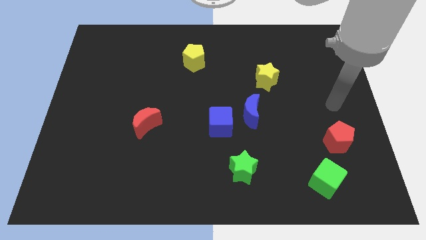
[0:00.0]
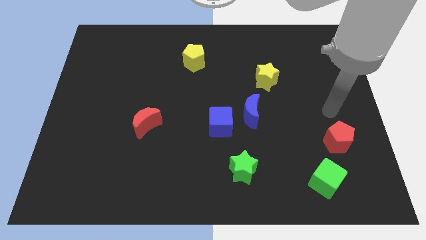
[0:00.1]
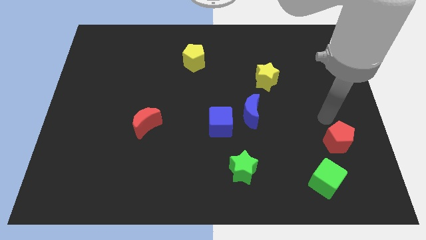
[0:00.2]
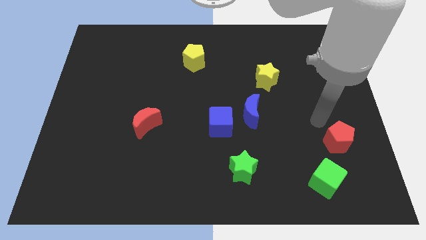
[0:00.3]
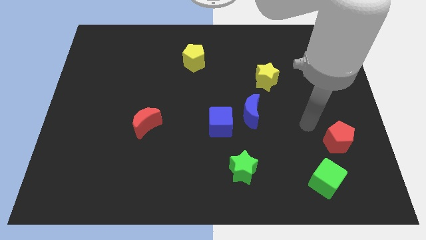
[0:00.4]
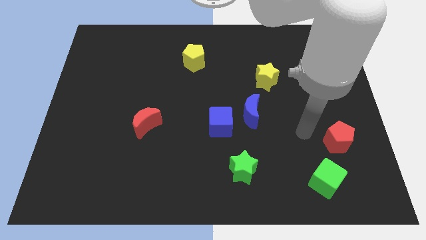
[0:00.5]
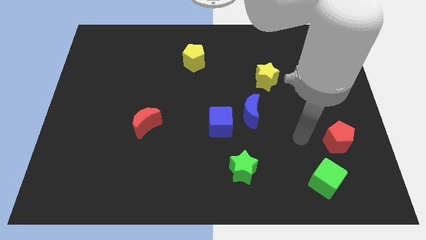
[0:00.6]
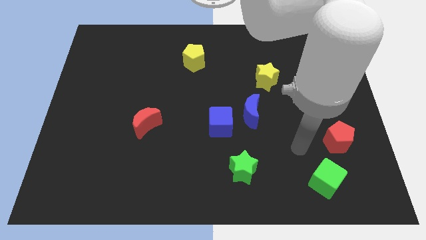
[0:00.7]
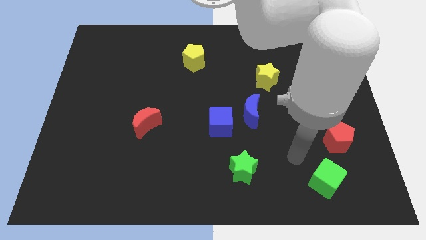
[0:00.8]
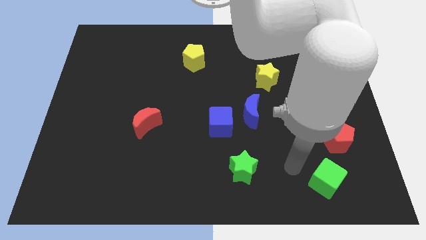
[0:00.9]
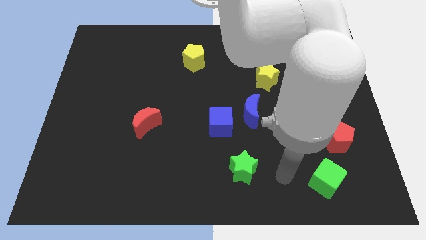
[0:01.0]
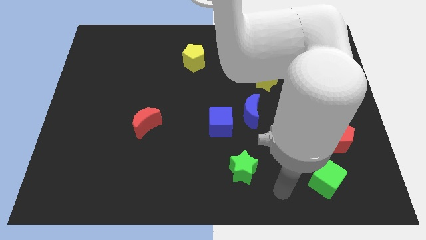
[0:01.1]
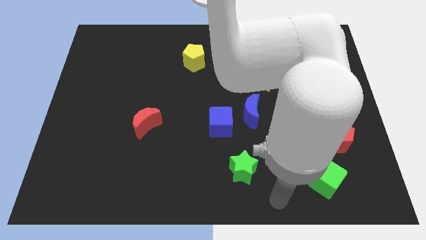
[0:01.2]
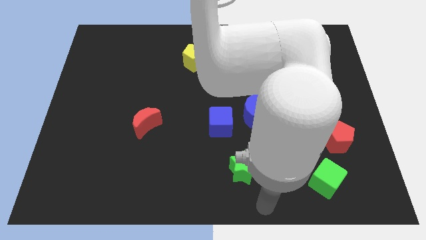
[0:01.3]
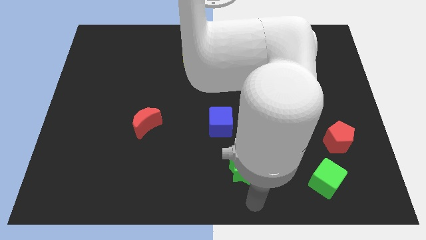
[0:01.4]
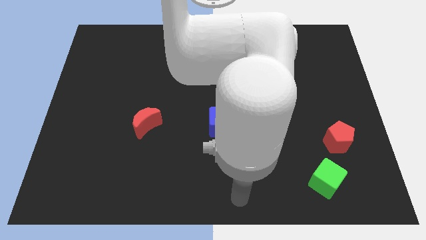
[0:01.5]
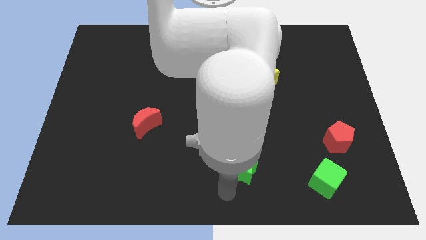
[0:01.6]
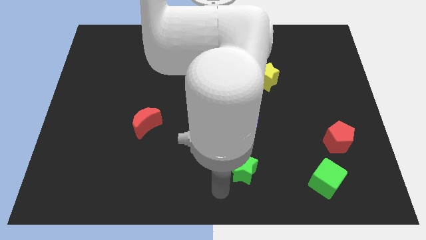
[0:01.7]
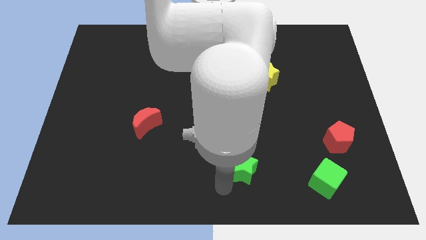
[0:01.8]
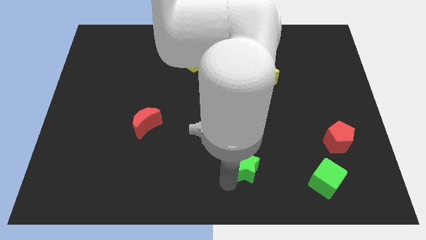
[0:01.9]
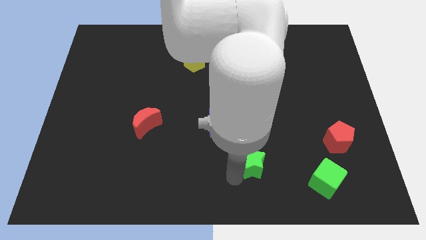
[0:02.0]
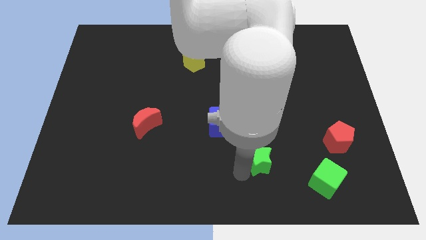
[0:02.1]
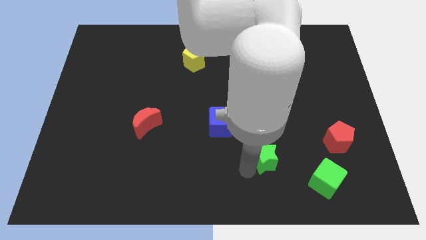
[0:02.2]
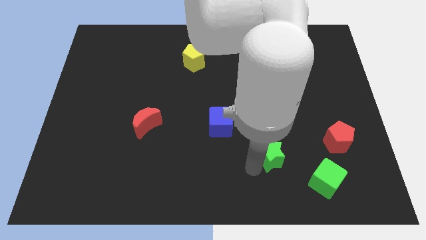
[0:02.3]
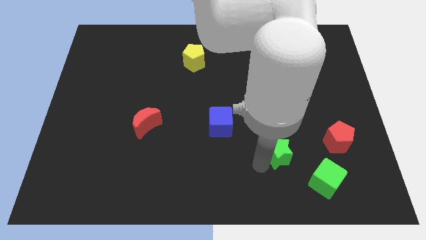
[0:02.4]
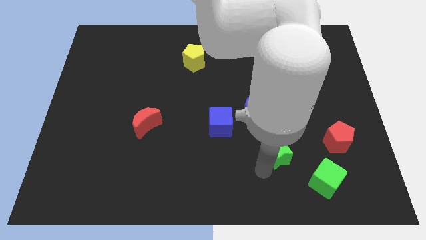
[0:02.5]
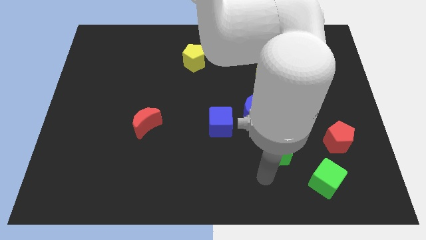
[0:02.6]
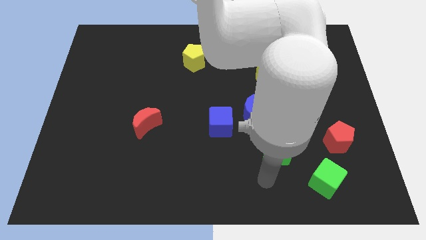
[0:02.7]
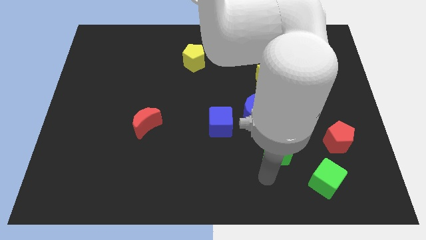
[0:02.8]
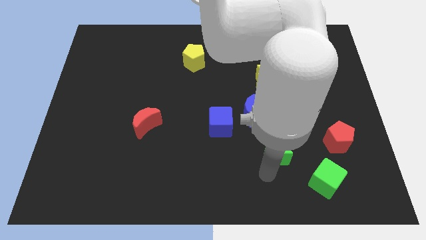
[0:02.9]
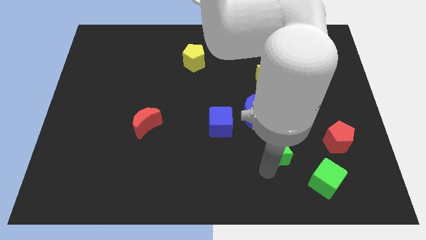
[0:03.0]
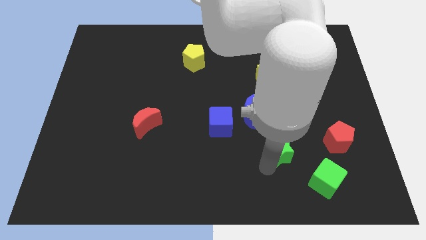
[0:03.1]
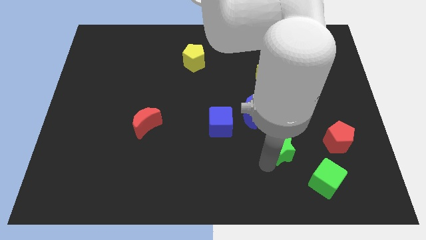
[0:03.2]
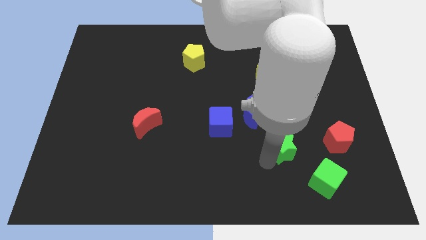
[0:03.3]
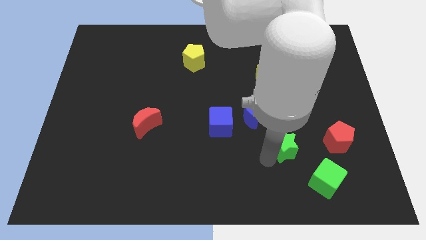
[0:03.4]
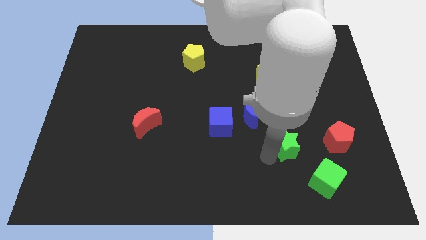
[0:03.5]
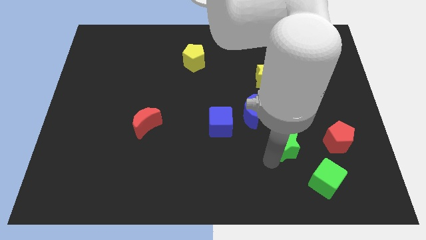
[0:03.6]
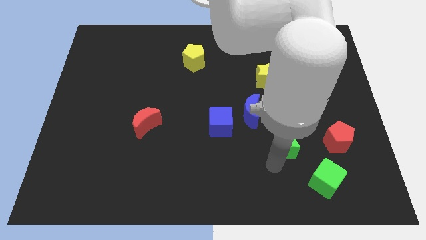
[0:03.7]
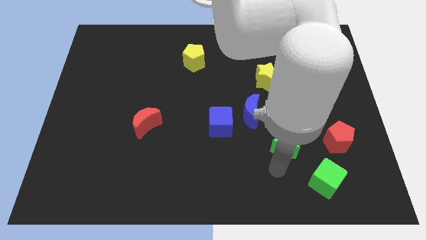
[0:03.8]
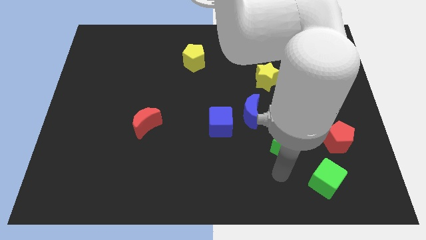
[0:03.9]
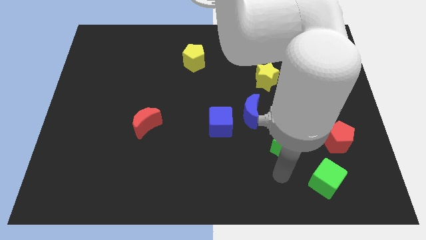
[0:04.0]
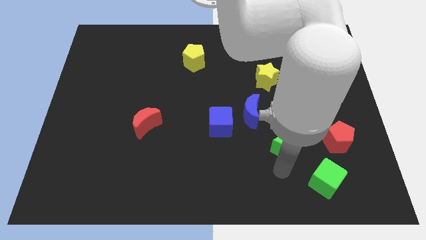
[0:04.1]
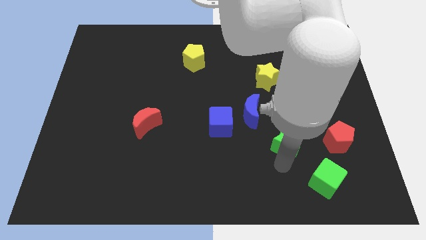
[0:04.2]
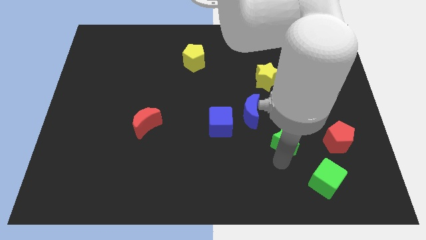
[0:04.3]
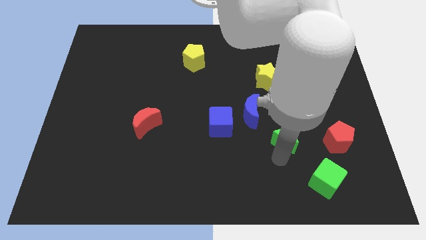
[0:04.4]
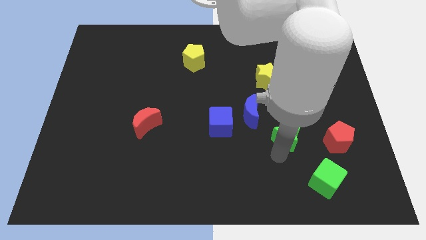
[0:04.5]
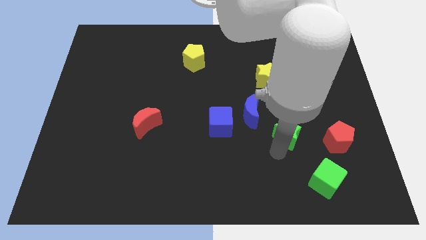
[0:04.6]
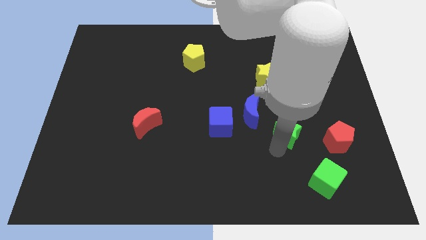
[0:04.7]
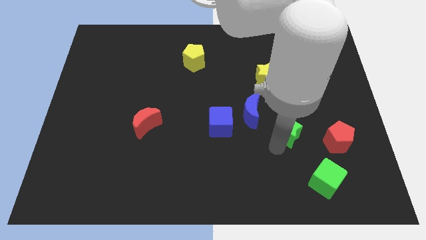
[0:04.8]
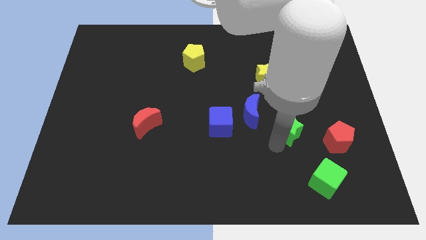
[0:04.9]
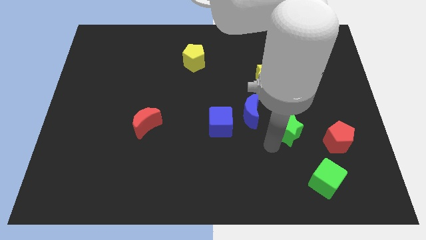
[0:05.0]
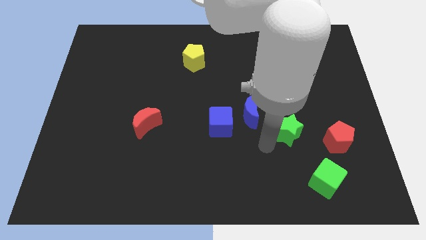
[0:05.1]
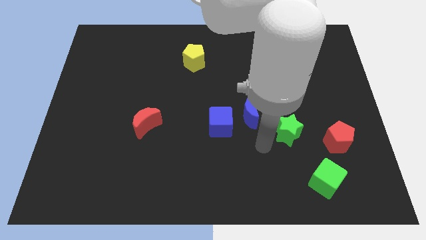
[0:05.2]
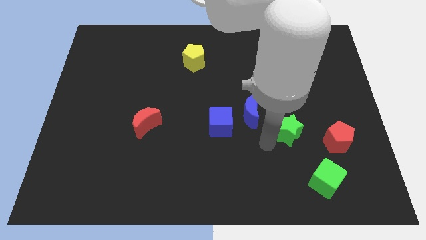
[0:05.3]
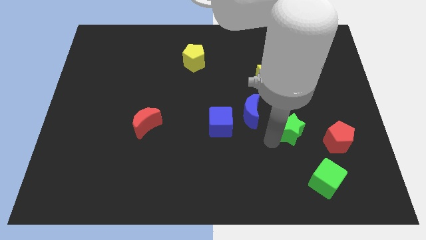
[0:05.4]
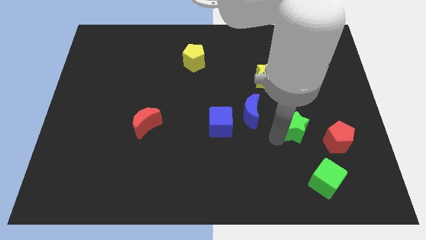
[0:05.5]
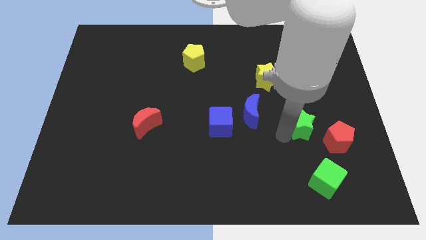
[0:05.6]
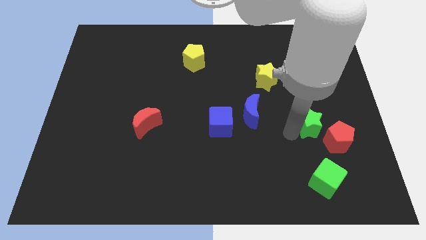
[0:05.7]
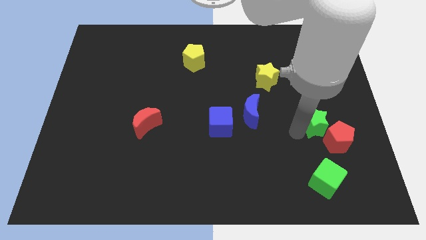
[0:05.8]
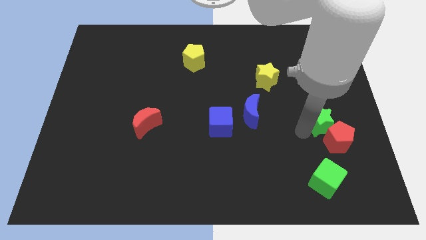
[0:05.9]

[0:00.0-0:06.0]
slide the green star diagonally up and to the right

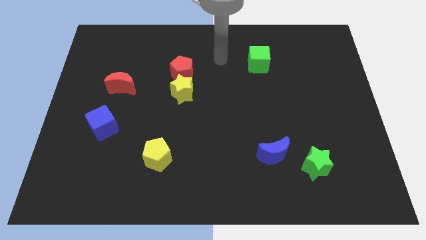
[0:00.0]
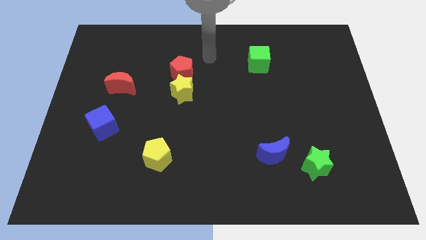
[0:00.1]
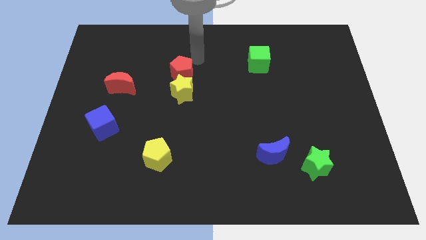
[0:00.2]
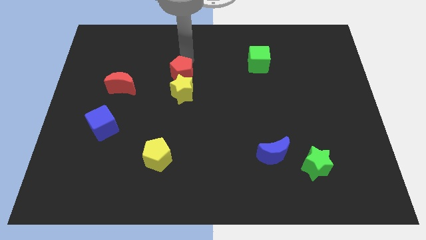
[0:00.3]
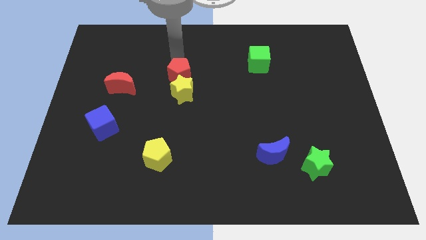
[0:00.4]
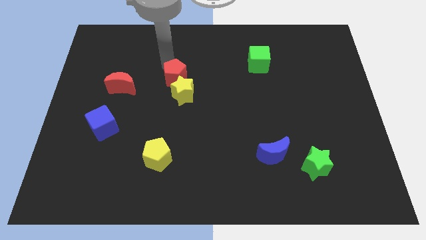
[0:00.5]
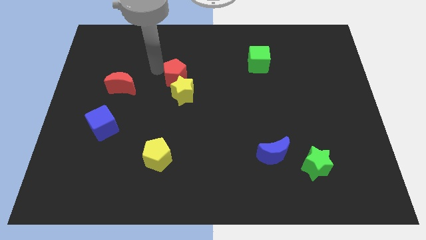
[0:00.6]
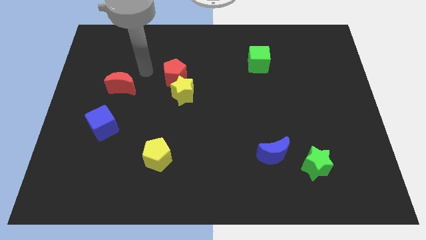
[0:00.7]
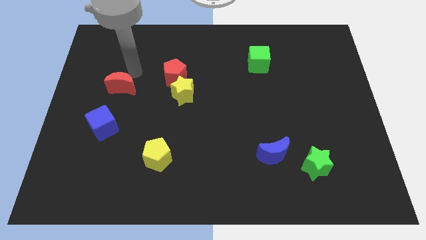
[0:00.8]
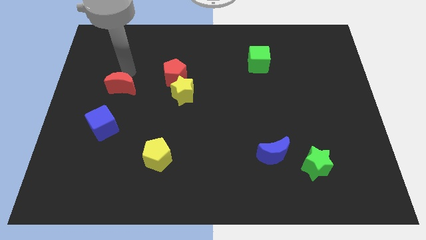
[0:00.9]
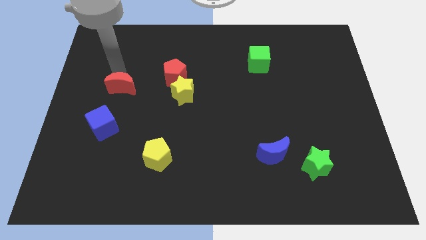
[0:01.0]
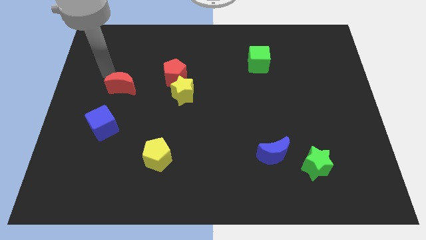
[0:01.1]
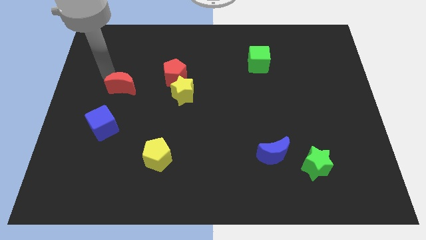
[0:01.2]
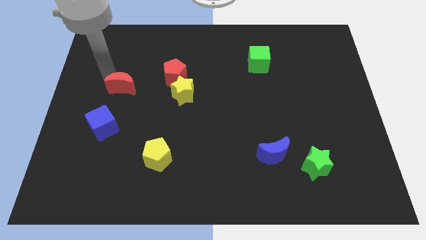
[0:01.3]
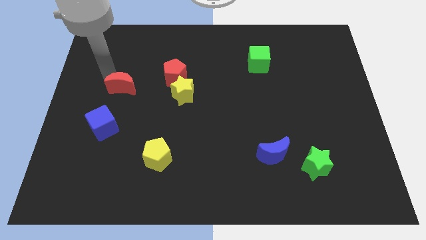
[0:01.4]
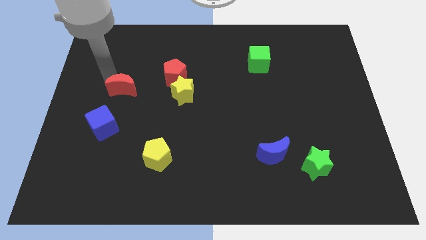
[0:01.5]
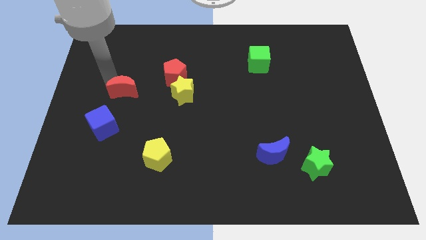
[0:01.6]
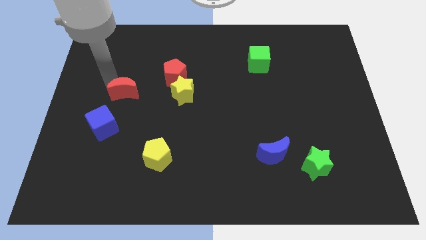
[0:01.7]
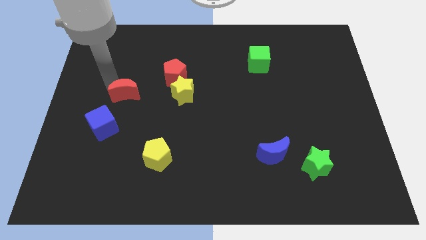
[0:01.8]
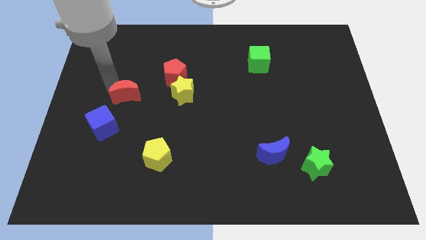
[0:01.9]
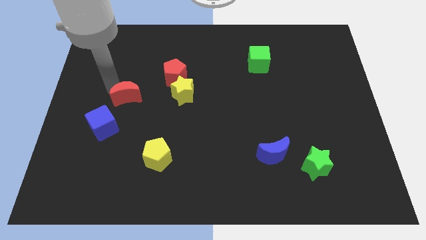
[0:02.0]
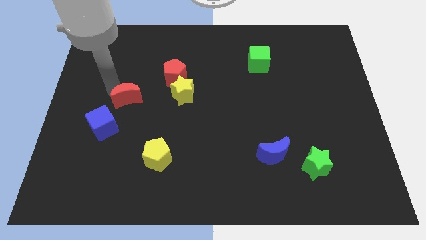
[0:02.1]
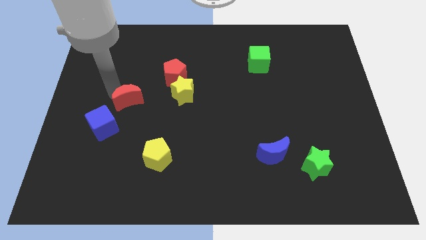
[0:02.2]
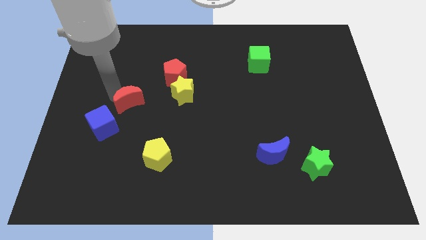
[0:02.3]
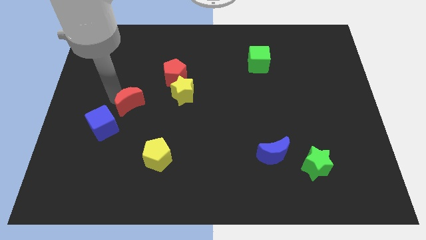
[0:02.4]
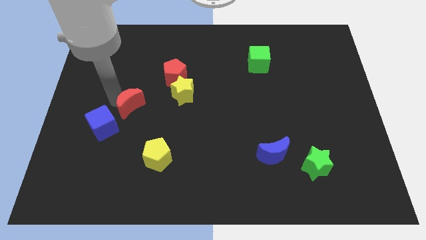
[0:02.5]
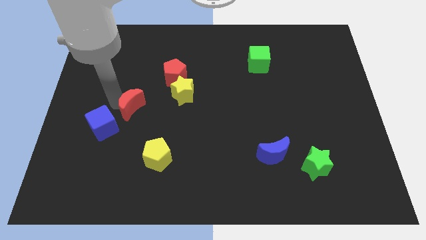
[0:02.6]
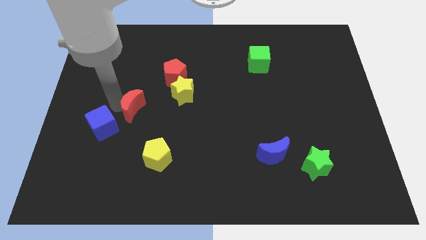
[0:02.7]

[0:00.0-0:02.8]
slide the red moon diagonally down and to the right a bit
